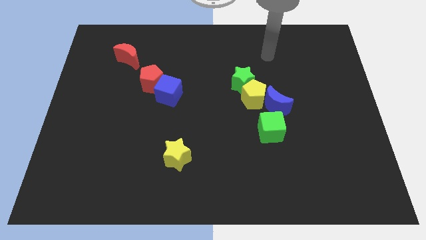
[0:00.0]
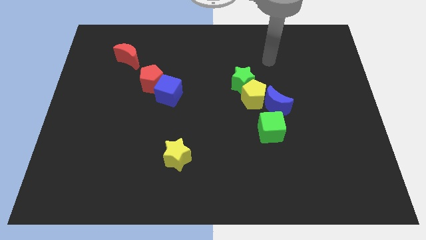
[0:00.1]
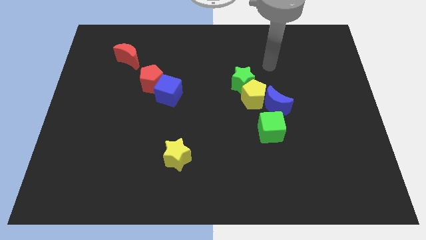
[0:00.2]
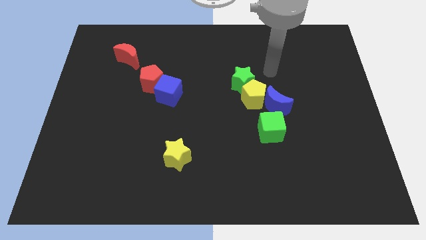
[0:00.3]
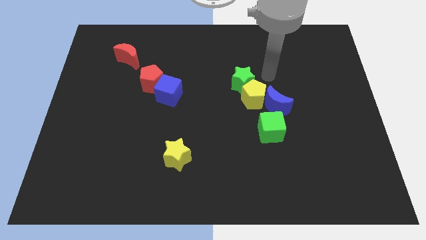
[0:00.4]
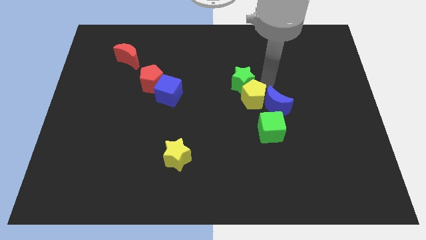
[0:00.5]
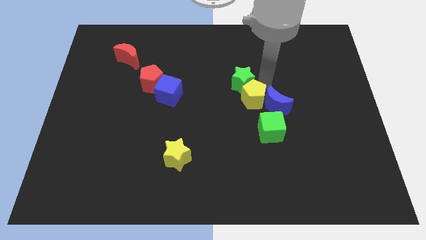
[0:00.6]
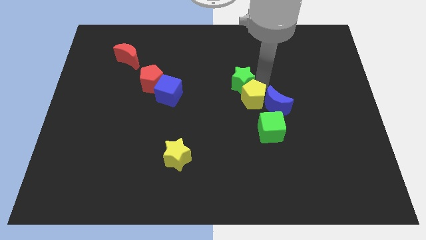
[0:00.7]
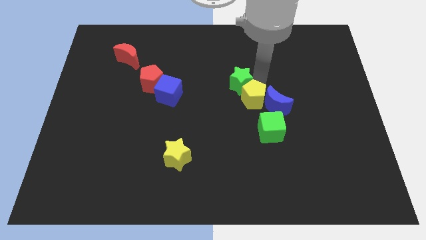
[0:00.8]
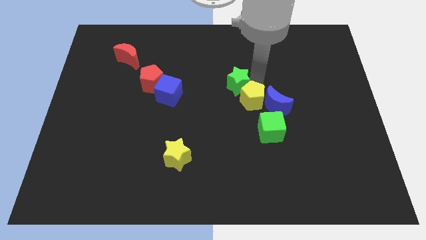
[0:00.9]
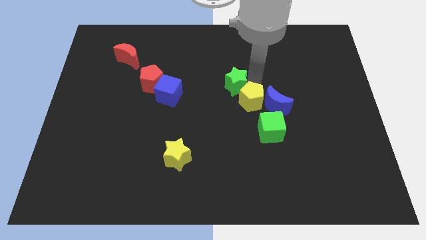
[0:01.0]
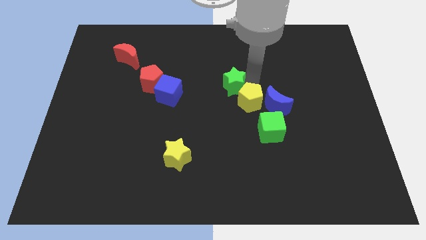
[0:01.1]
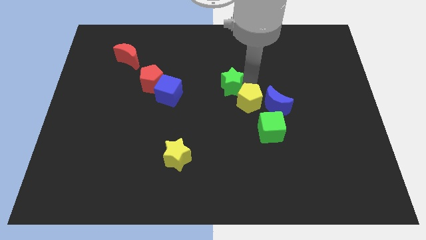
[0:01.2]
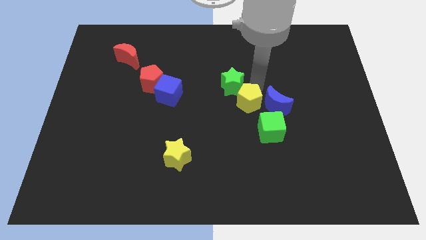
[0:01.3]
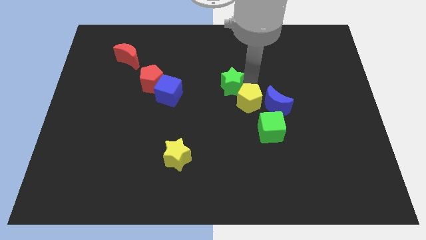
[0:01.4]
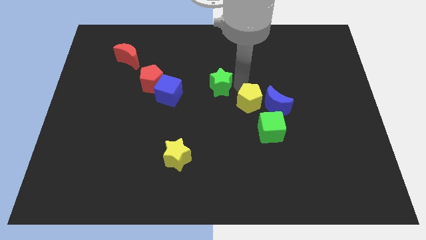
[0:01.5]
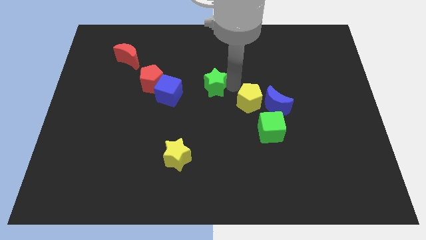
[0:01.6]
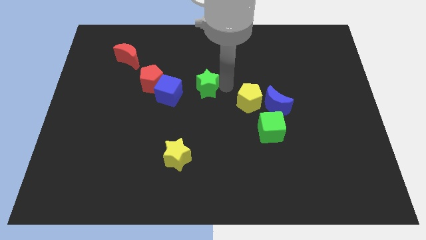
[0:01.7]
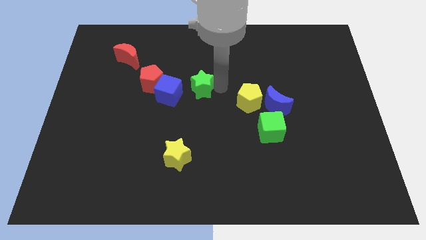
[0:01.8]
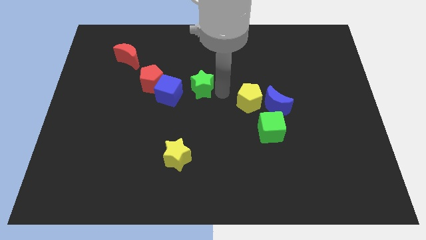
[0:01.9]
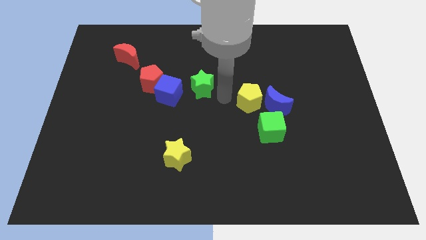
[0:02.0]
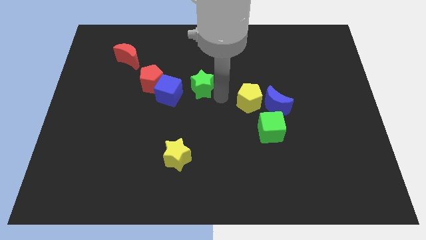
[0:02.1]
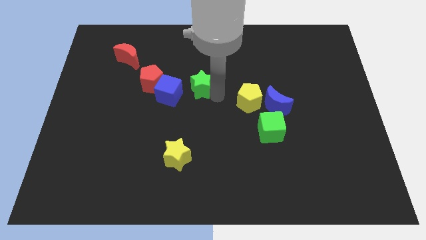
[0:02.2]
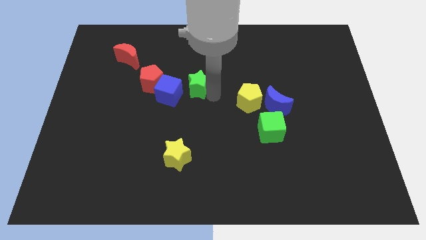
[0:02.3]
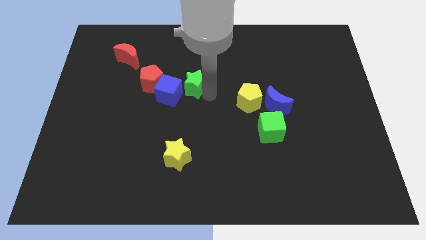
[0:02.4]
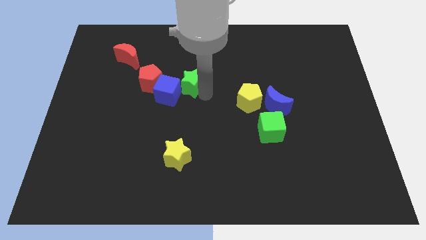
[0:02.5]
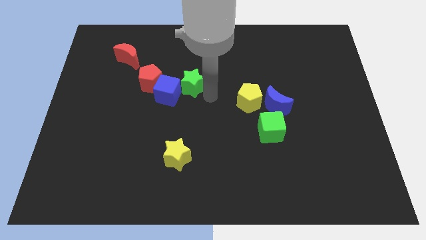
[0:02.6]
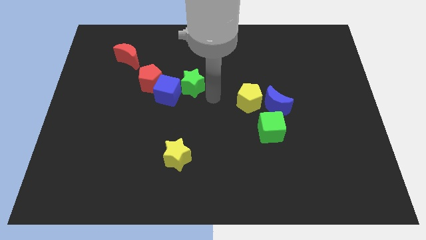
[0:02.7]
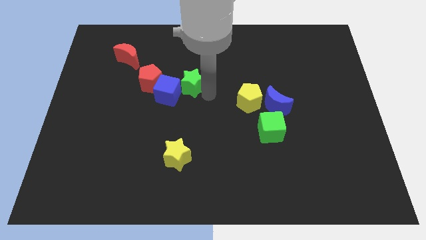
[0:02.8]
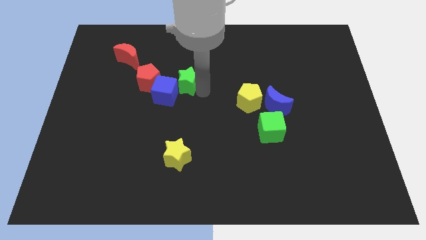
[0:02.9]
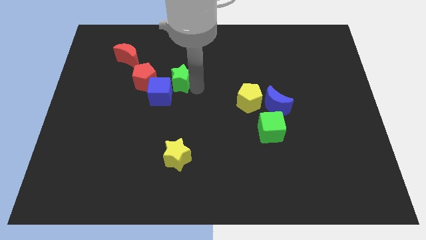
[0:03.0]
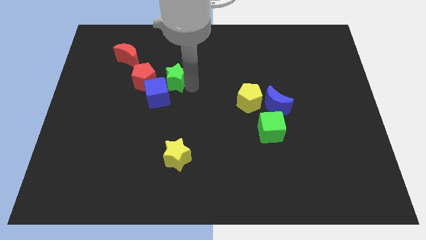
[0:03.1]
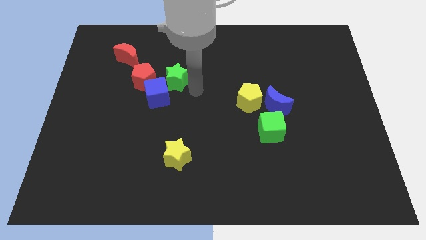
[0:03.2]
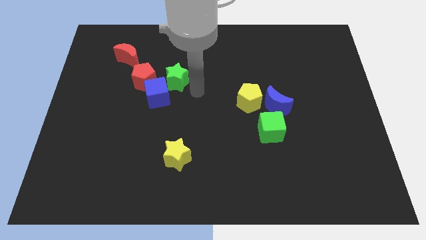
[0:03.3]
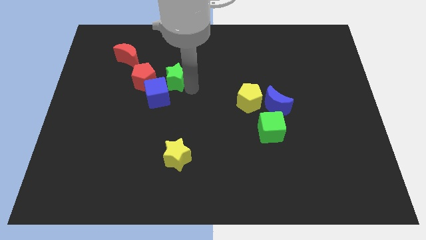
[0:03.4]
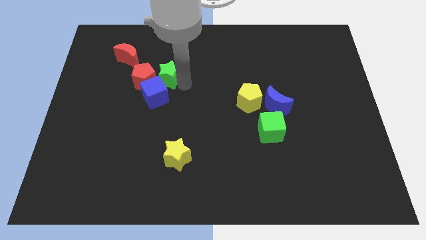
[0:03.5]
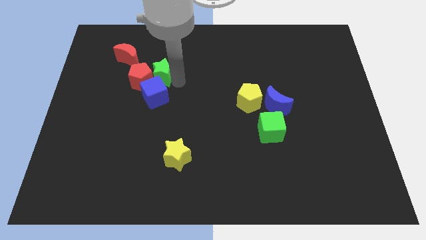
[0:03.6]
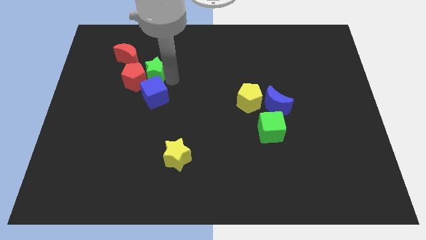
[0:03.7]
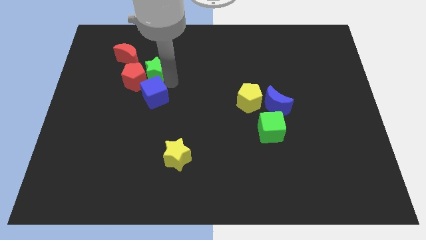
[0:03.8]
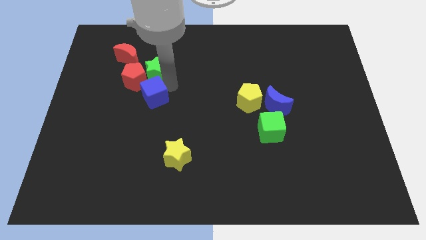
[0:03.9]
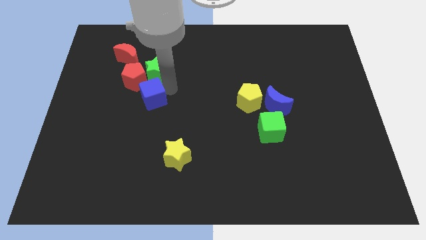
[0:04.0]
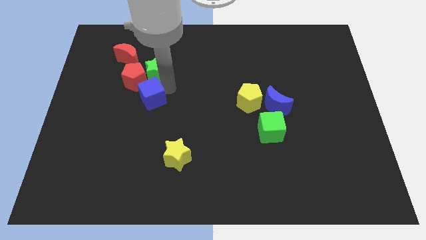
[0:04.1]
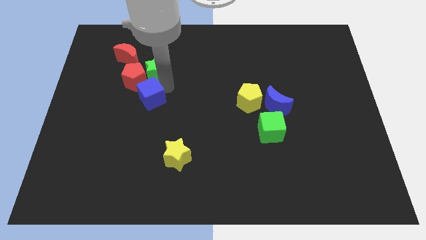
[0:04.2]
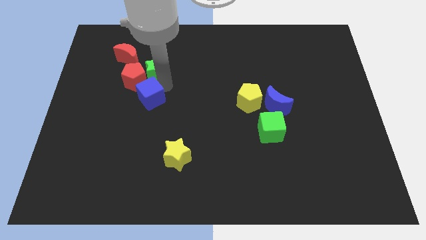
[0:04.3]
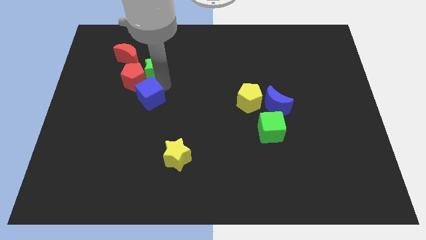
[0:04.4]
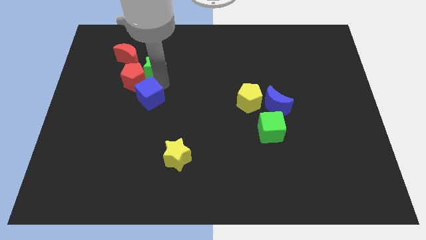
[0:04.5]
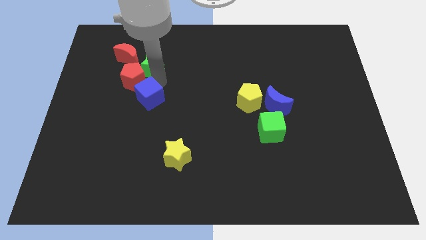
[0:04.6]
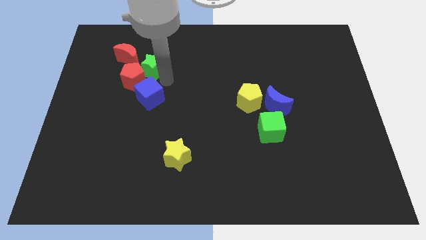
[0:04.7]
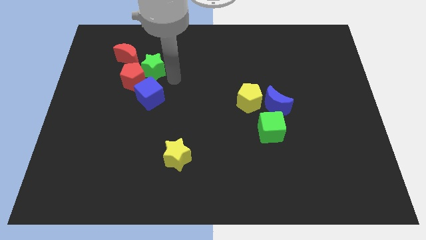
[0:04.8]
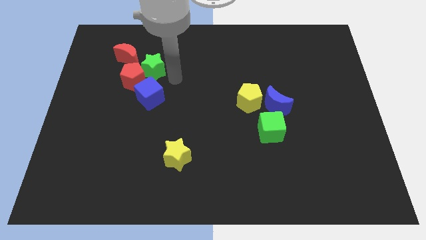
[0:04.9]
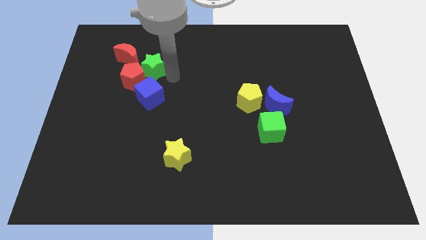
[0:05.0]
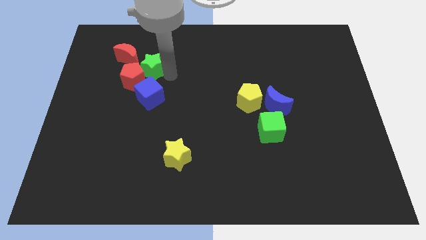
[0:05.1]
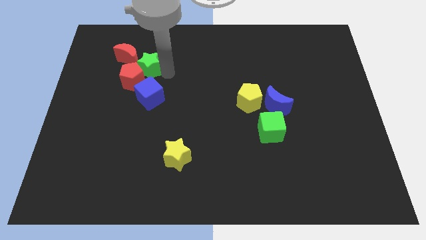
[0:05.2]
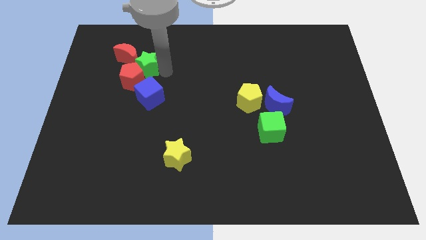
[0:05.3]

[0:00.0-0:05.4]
slide the green star towards the red moon

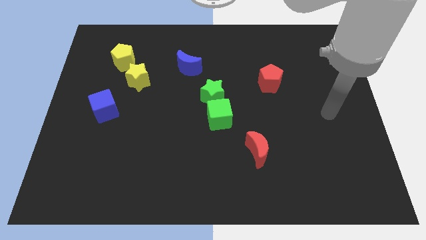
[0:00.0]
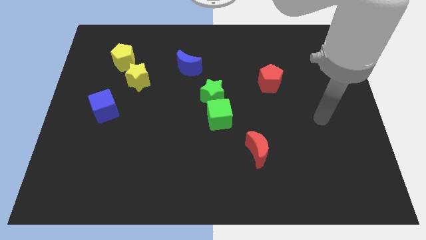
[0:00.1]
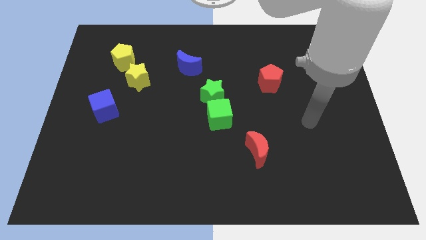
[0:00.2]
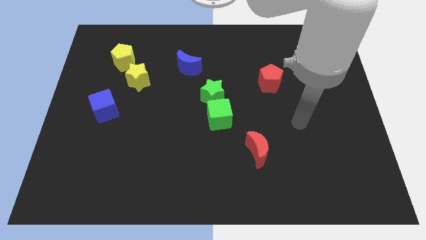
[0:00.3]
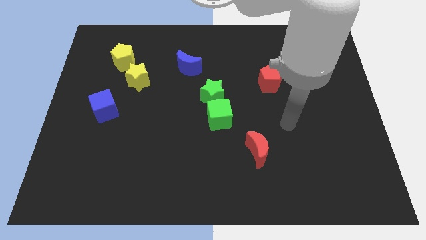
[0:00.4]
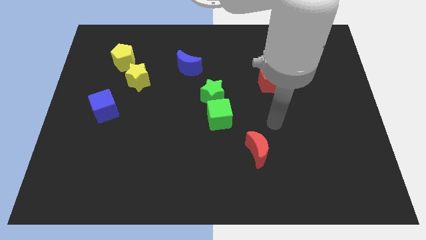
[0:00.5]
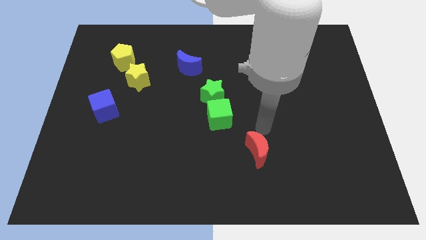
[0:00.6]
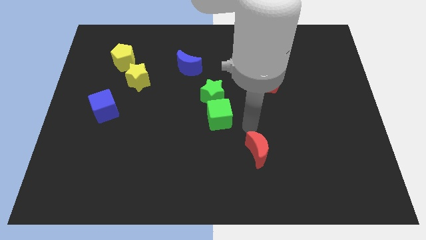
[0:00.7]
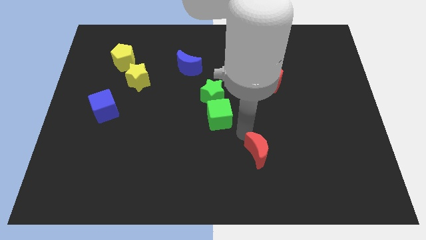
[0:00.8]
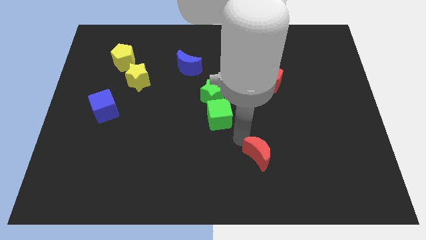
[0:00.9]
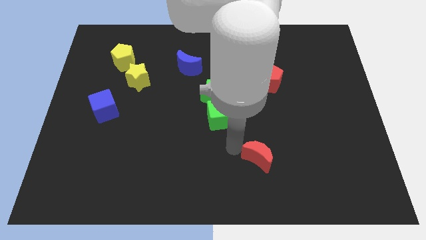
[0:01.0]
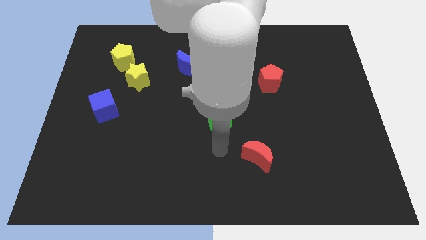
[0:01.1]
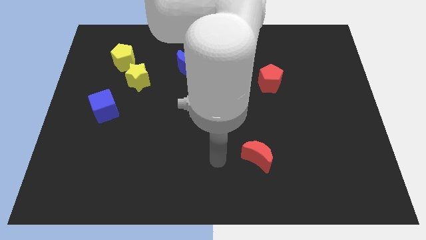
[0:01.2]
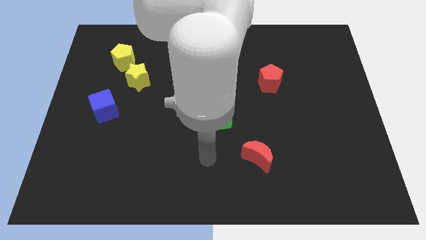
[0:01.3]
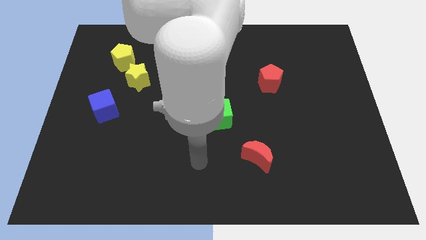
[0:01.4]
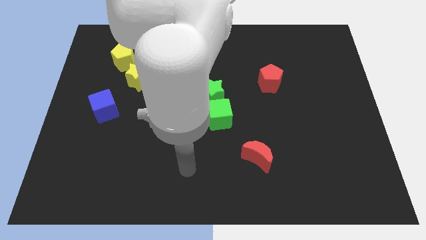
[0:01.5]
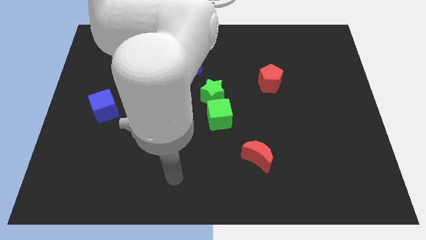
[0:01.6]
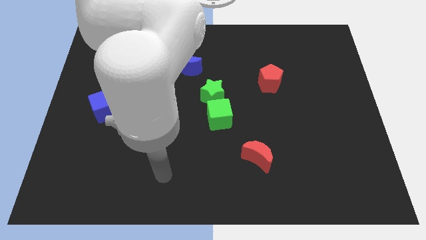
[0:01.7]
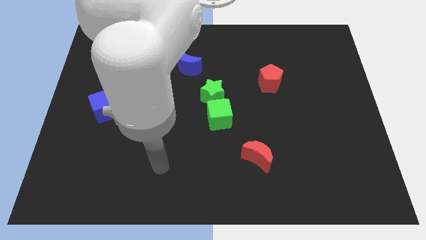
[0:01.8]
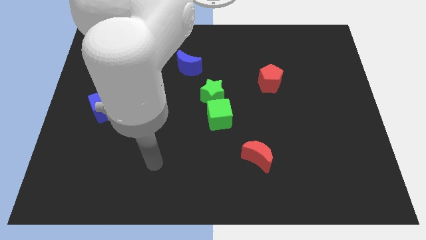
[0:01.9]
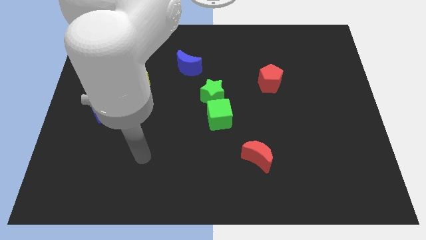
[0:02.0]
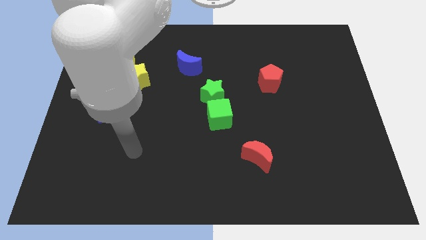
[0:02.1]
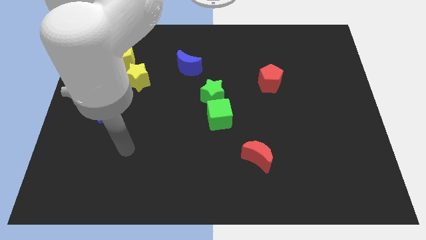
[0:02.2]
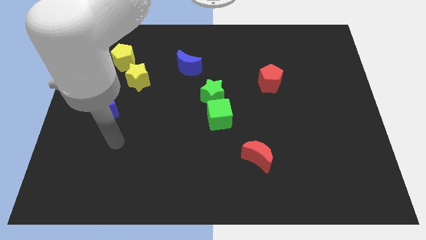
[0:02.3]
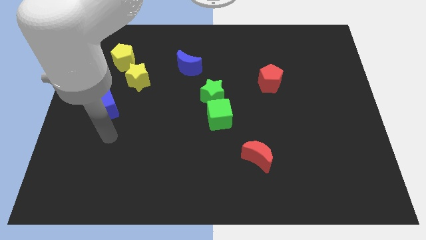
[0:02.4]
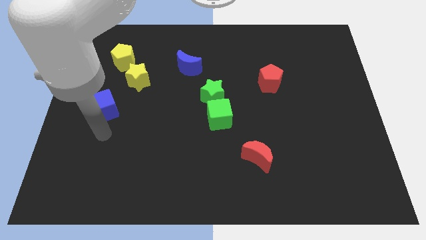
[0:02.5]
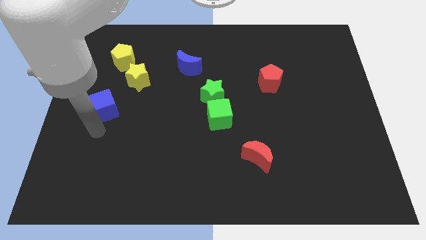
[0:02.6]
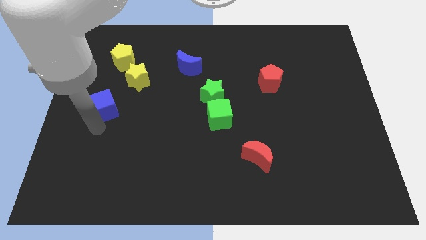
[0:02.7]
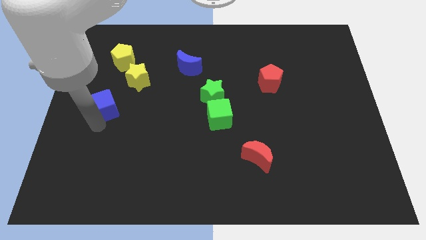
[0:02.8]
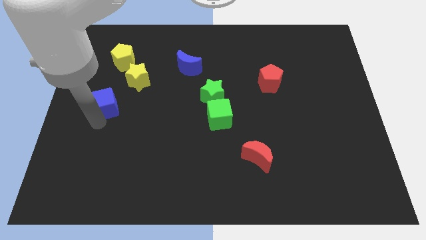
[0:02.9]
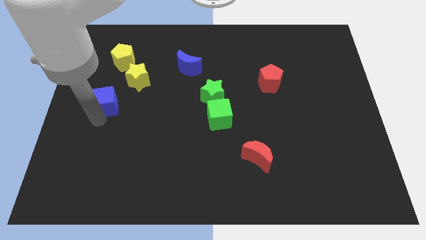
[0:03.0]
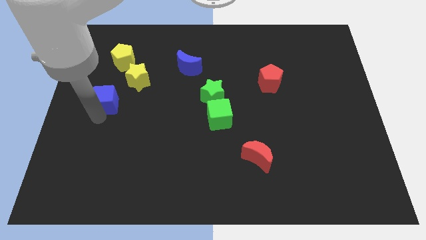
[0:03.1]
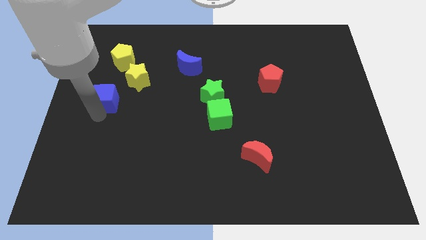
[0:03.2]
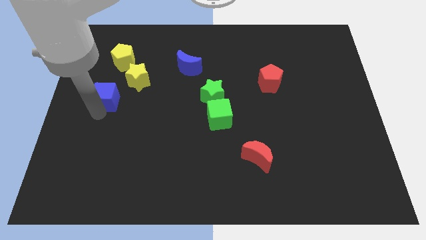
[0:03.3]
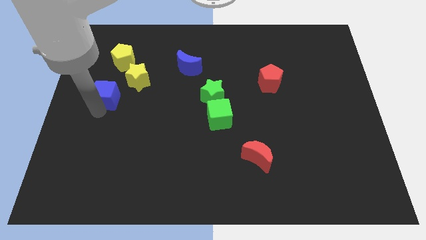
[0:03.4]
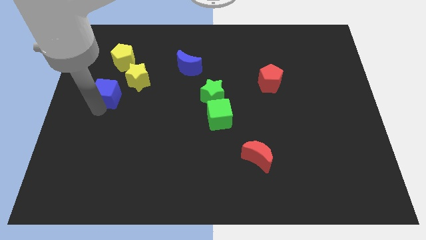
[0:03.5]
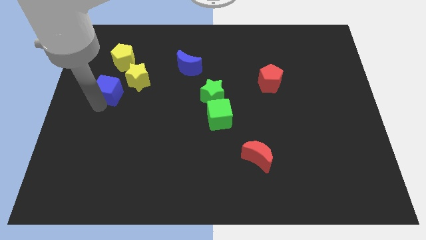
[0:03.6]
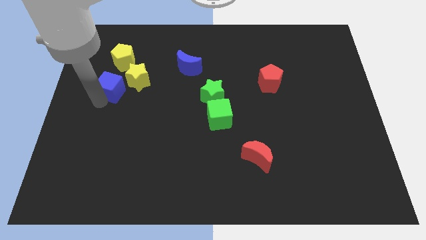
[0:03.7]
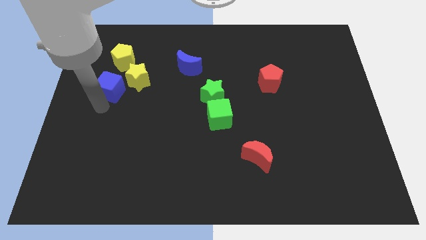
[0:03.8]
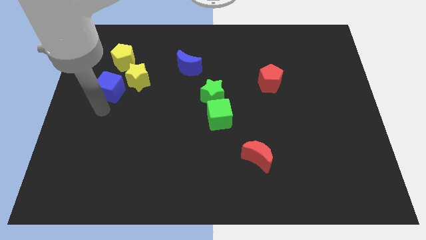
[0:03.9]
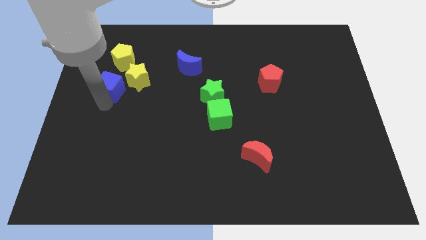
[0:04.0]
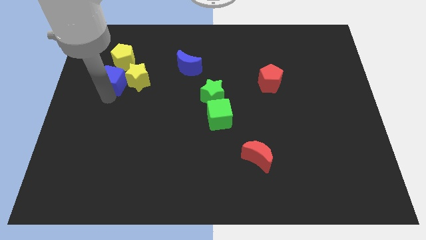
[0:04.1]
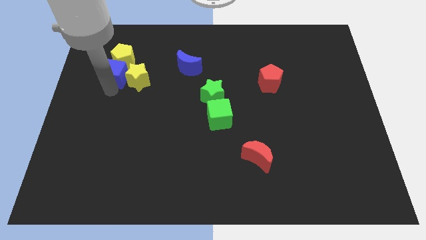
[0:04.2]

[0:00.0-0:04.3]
put the blue cube to the yellow pentagon
